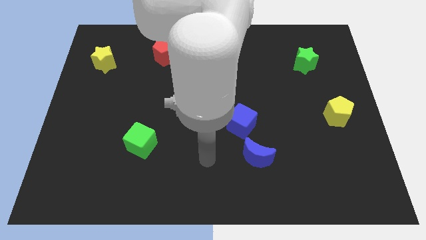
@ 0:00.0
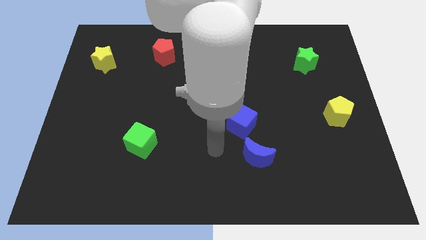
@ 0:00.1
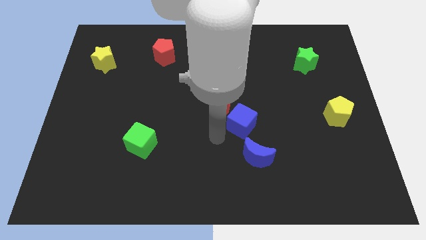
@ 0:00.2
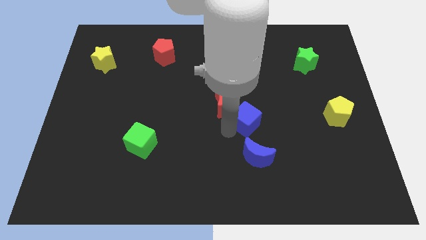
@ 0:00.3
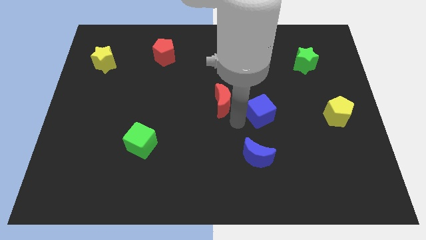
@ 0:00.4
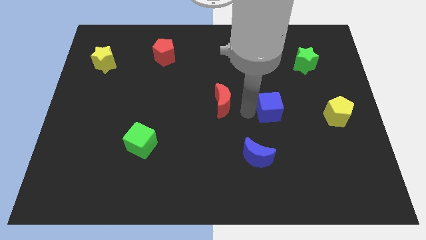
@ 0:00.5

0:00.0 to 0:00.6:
move the red moon away from the blue cube

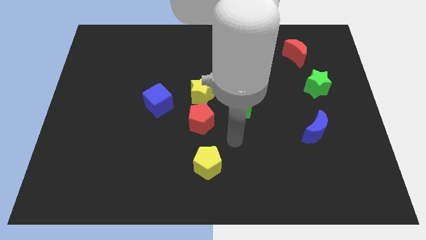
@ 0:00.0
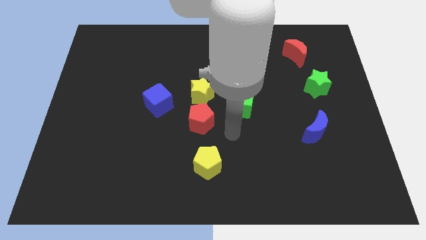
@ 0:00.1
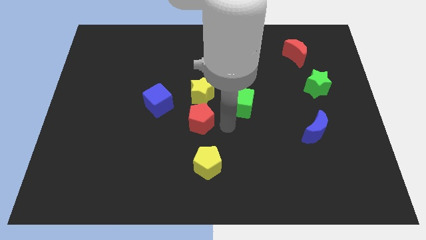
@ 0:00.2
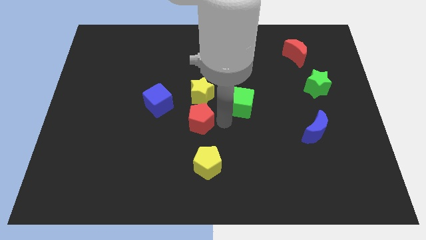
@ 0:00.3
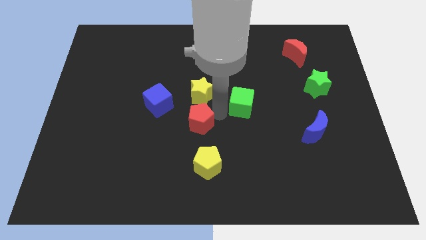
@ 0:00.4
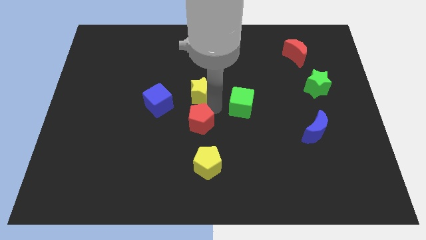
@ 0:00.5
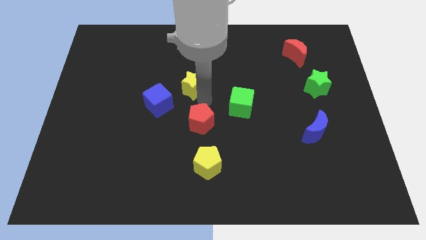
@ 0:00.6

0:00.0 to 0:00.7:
separate the red pentagon from the yellow star

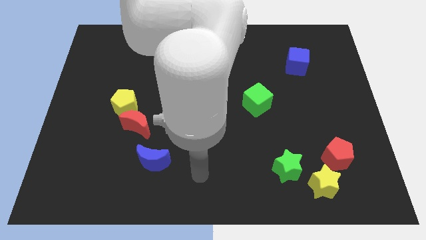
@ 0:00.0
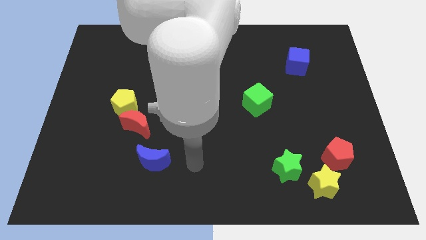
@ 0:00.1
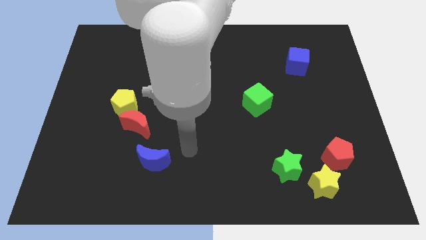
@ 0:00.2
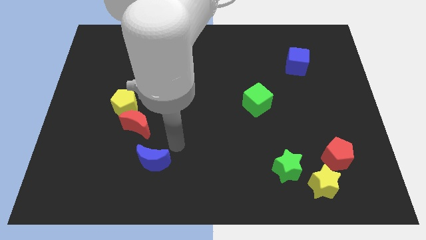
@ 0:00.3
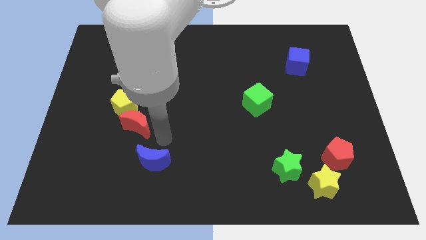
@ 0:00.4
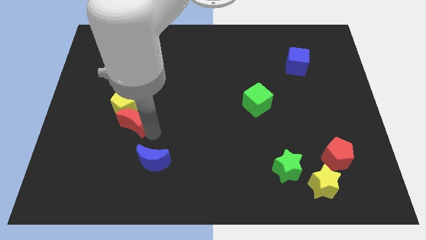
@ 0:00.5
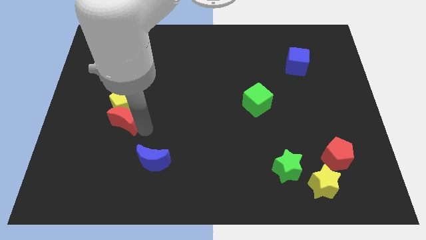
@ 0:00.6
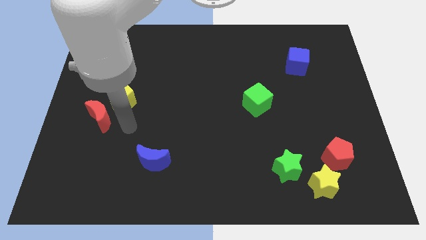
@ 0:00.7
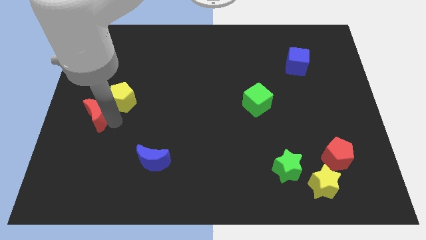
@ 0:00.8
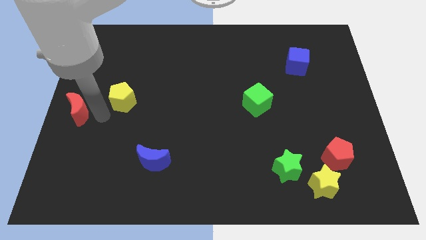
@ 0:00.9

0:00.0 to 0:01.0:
pull the yellow pentagon apart from the red moon

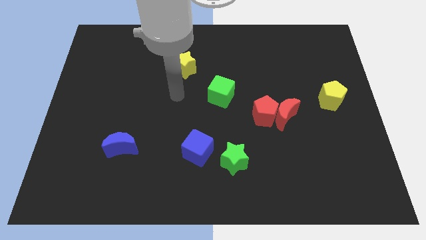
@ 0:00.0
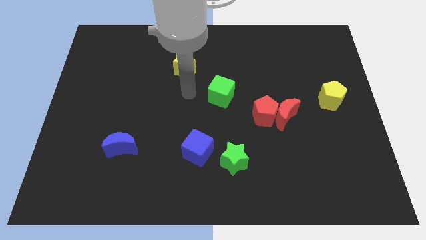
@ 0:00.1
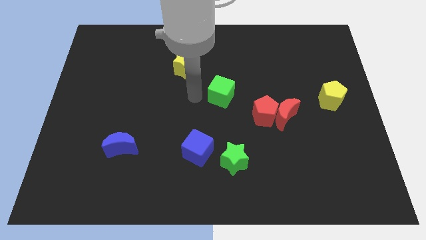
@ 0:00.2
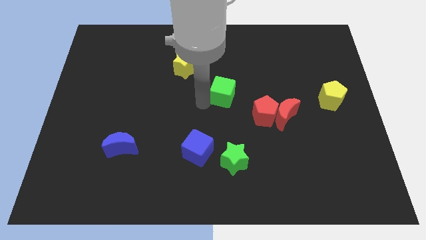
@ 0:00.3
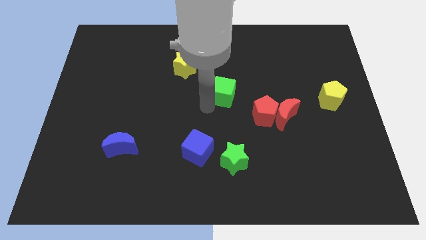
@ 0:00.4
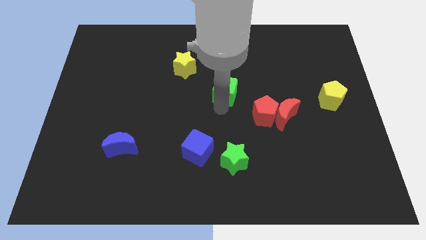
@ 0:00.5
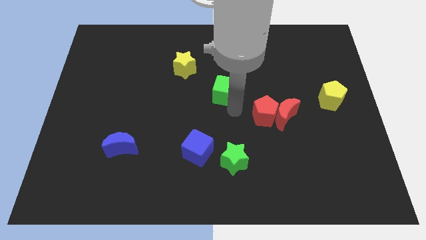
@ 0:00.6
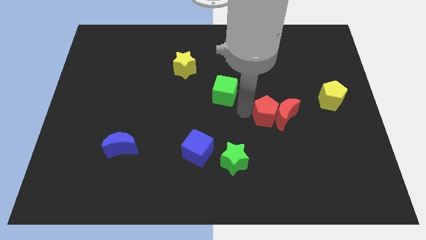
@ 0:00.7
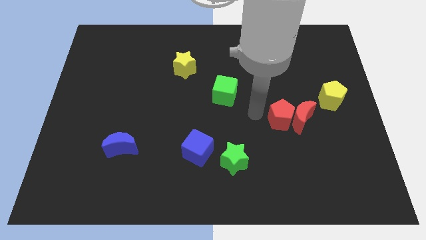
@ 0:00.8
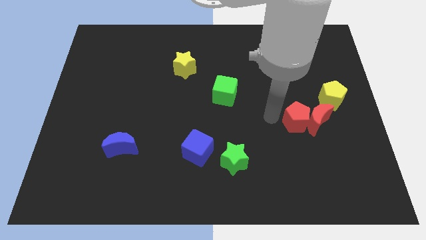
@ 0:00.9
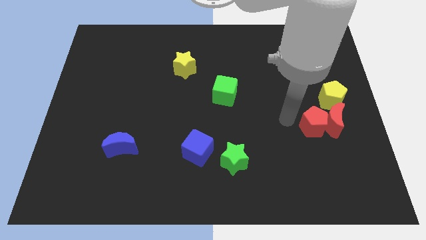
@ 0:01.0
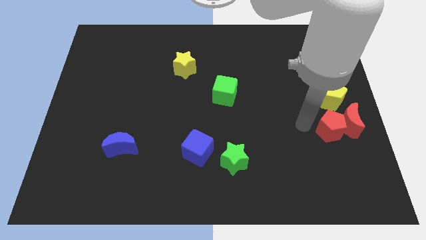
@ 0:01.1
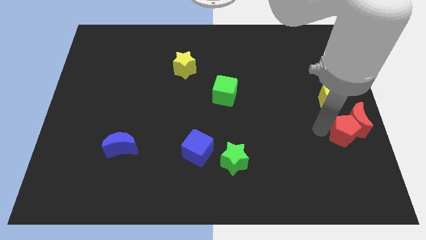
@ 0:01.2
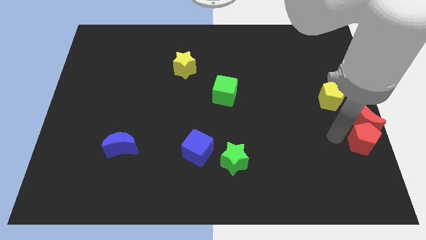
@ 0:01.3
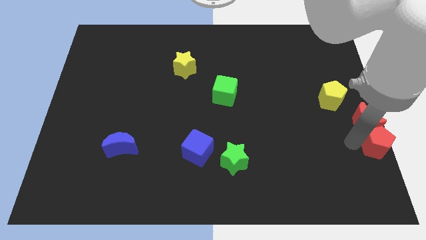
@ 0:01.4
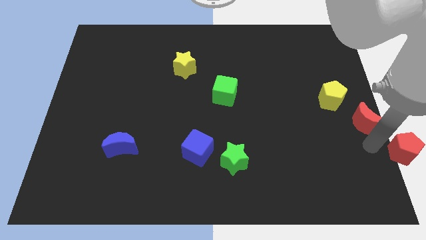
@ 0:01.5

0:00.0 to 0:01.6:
move the red moon away from the red pentagon

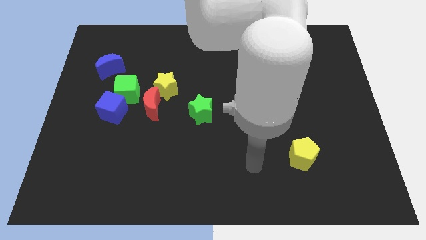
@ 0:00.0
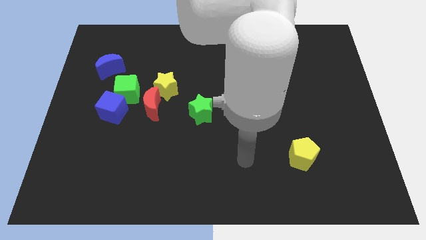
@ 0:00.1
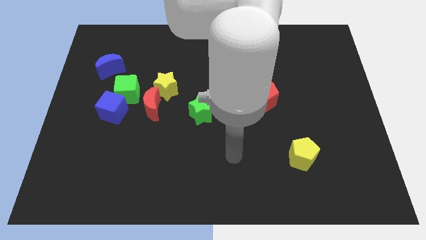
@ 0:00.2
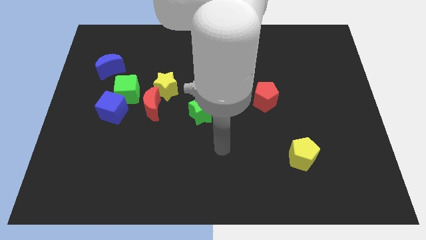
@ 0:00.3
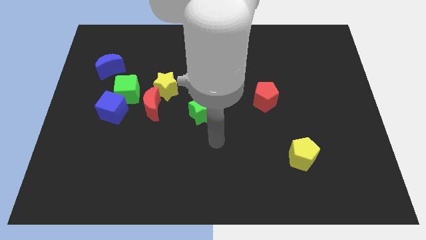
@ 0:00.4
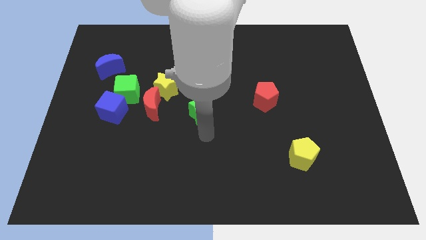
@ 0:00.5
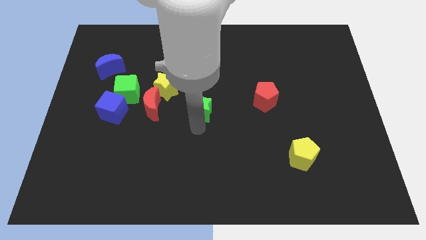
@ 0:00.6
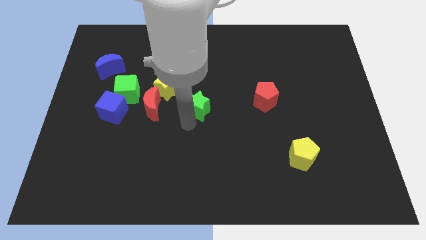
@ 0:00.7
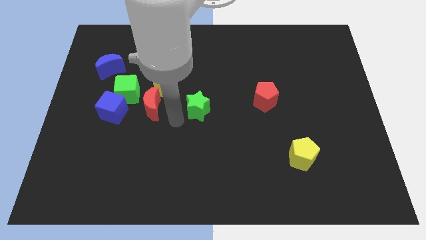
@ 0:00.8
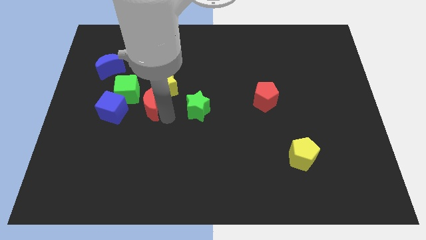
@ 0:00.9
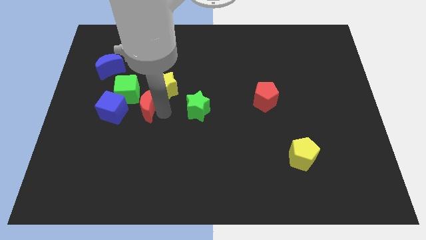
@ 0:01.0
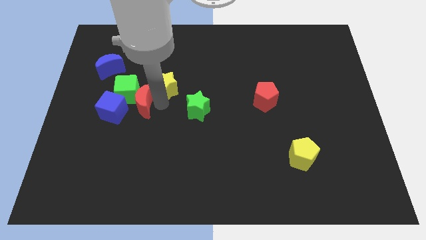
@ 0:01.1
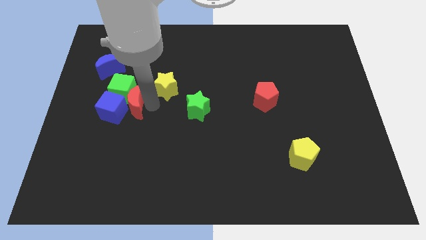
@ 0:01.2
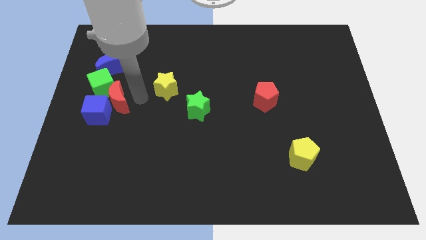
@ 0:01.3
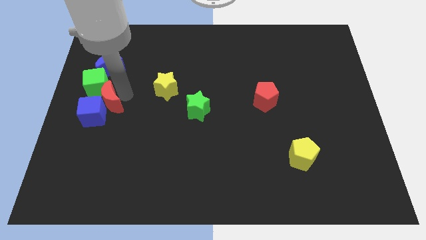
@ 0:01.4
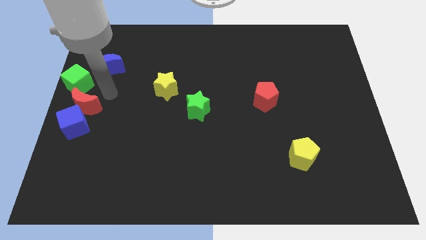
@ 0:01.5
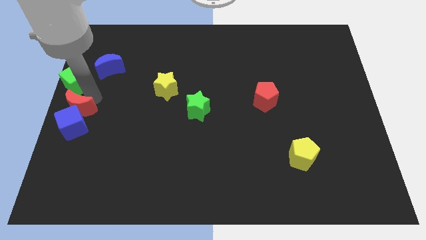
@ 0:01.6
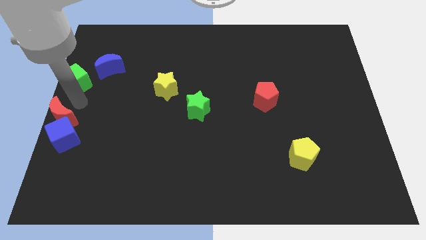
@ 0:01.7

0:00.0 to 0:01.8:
pull the blue cube apart from the green cube and red moon

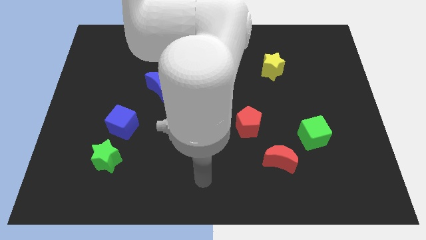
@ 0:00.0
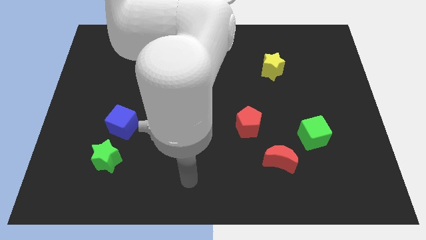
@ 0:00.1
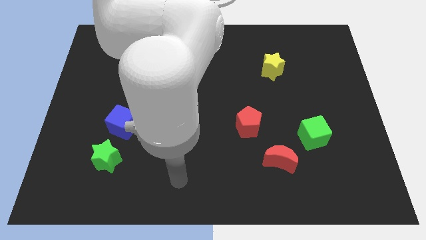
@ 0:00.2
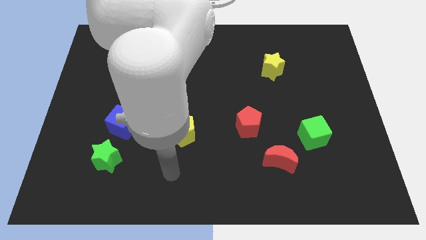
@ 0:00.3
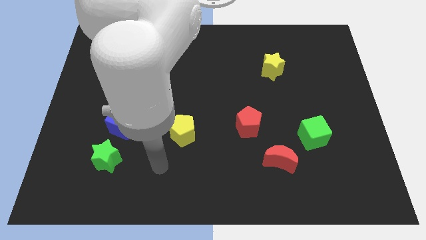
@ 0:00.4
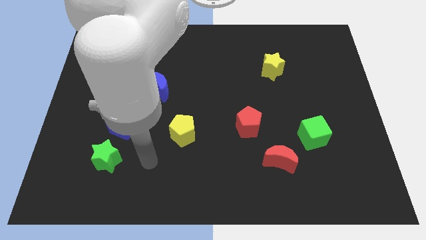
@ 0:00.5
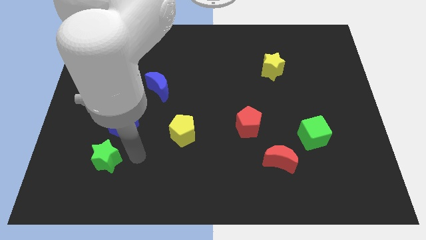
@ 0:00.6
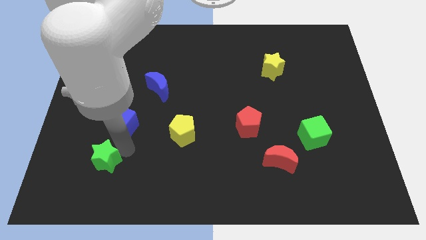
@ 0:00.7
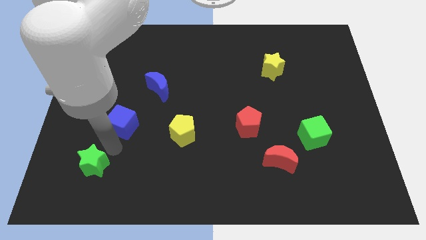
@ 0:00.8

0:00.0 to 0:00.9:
separate the blue cube from the green star

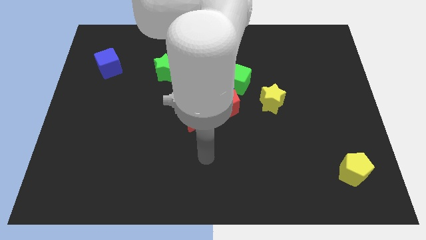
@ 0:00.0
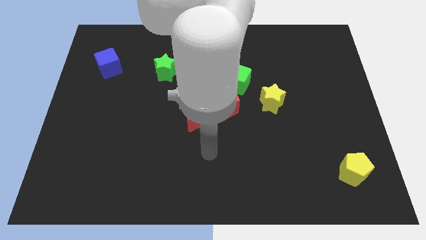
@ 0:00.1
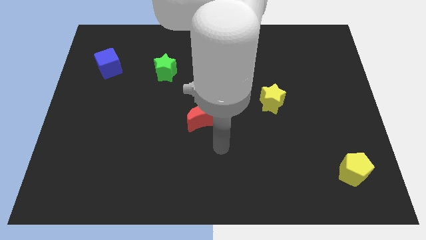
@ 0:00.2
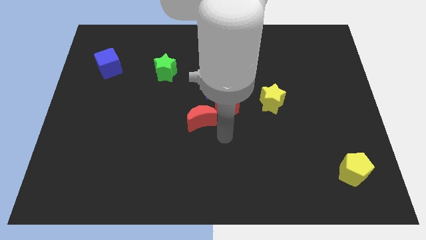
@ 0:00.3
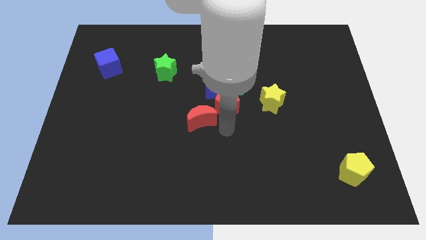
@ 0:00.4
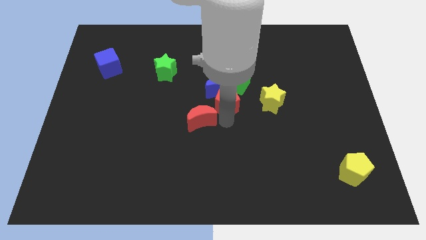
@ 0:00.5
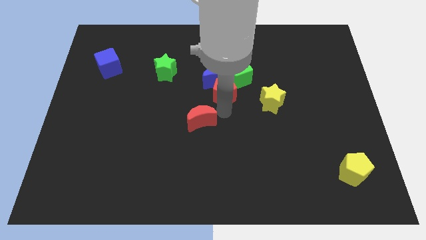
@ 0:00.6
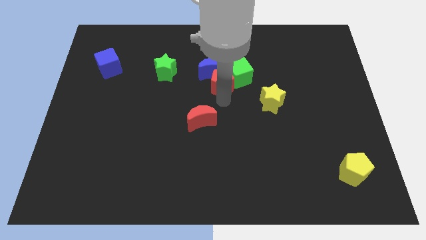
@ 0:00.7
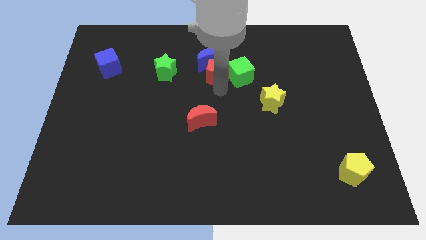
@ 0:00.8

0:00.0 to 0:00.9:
separate the blue moon from the red pentagon, green cube, and red moon

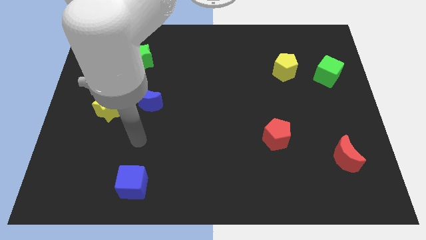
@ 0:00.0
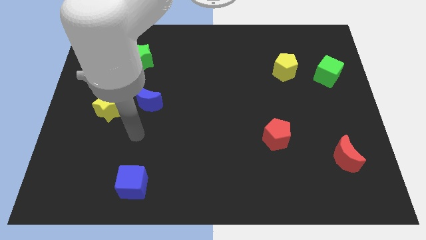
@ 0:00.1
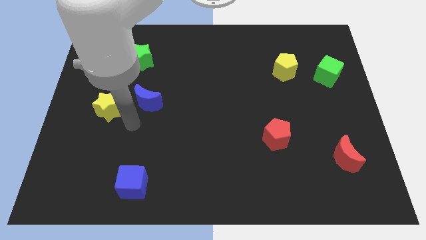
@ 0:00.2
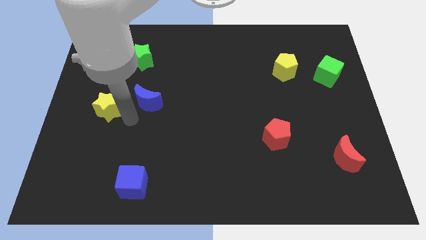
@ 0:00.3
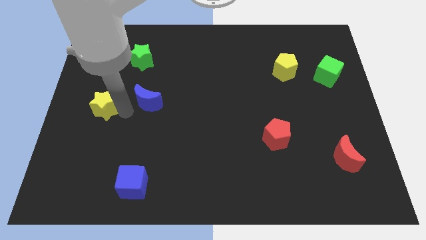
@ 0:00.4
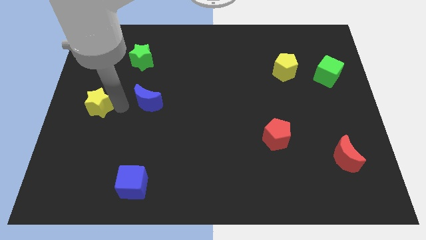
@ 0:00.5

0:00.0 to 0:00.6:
separate the blue moon from the yellow star

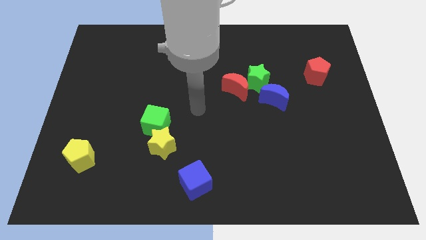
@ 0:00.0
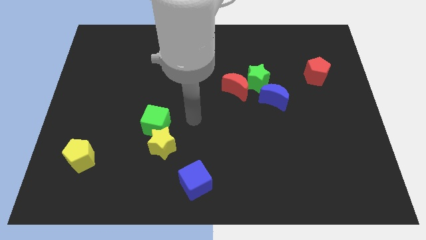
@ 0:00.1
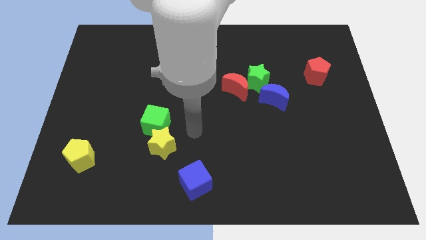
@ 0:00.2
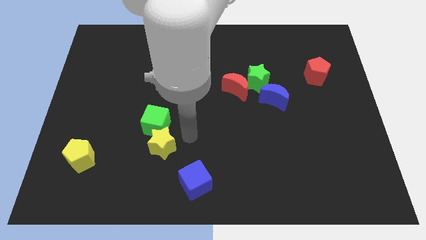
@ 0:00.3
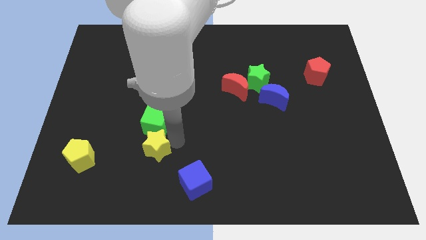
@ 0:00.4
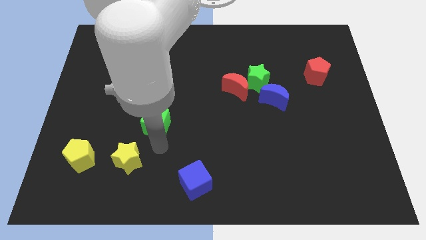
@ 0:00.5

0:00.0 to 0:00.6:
move the green cube away from the yellow star

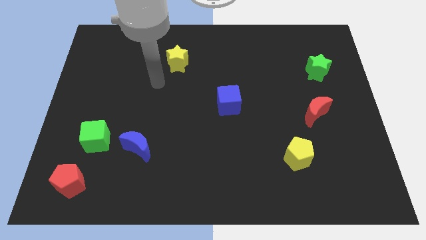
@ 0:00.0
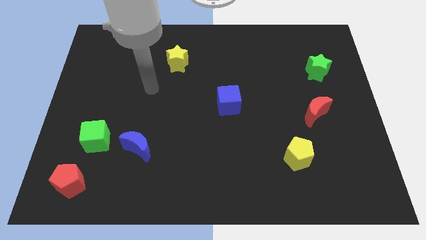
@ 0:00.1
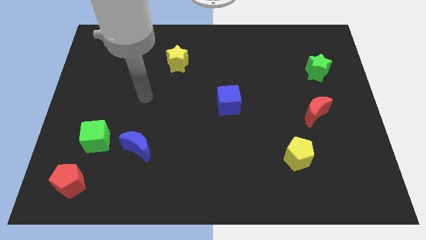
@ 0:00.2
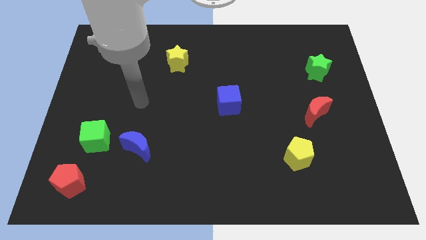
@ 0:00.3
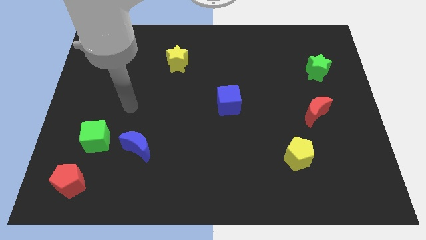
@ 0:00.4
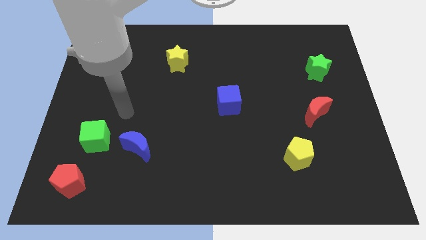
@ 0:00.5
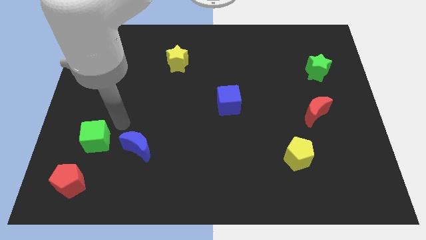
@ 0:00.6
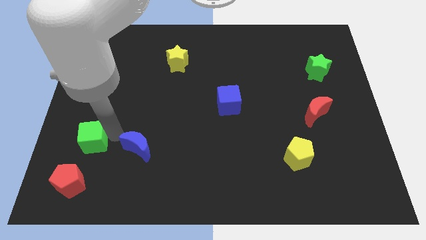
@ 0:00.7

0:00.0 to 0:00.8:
separate the blue moon from the green cube
